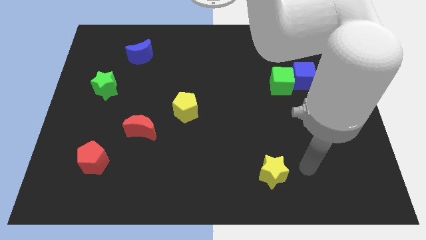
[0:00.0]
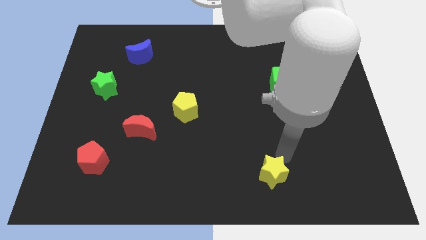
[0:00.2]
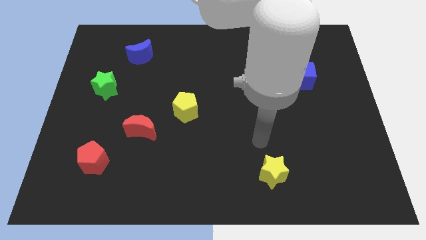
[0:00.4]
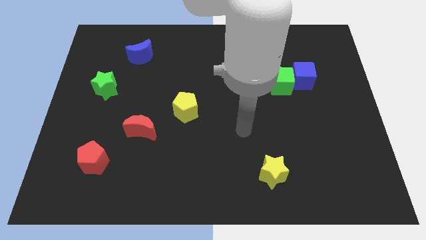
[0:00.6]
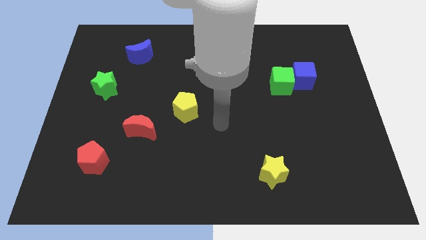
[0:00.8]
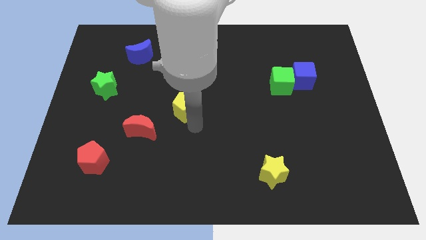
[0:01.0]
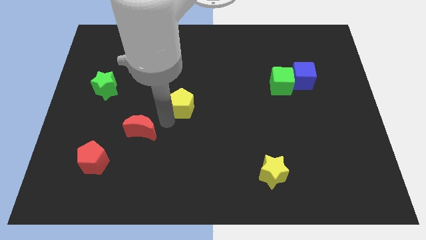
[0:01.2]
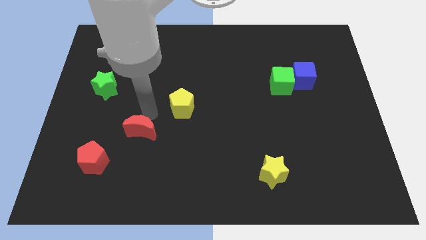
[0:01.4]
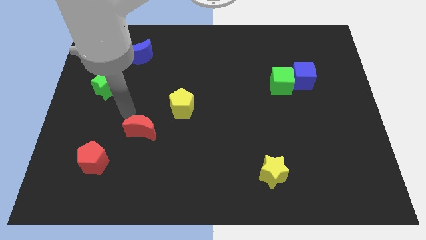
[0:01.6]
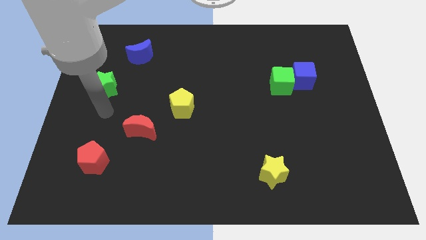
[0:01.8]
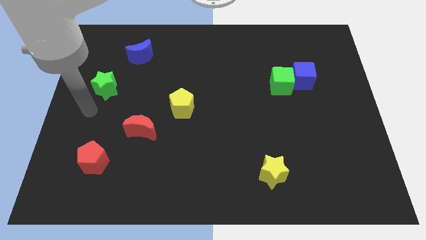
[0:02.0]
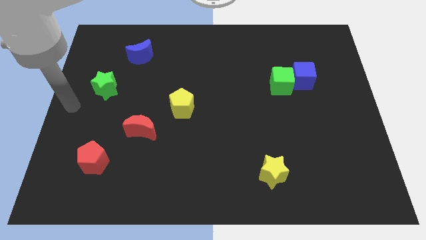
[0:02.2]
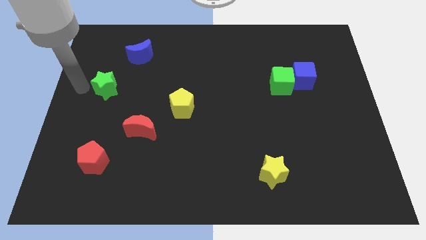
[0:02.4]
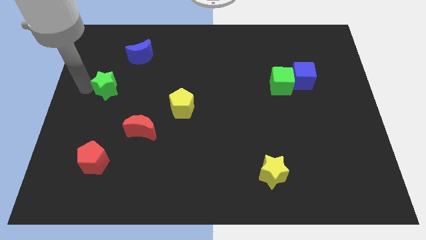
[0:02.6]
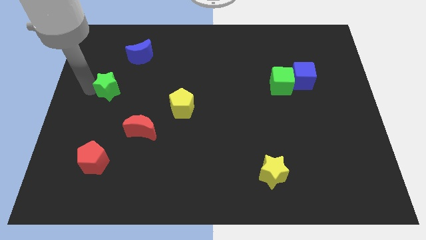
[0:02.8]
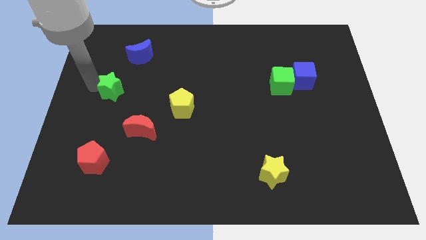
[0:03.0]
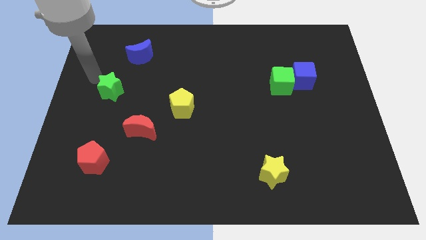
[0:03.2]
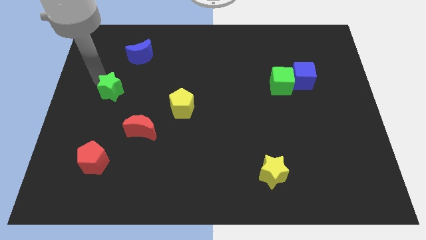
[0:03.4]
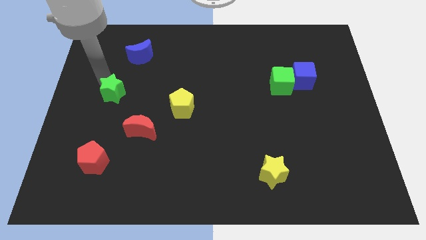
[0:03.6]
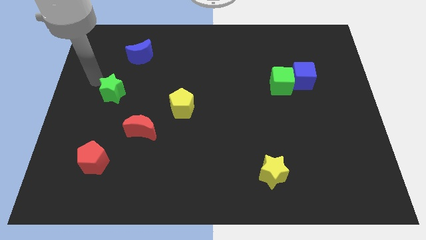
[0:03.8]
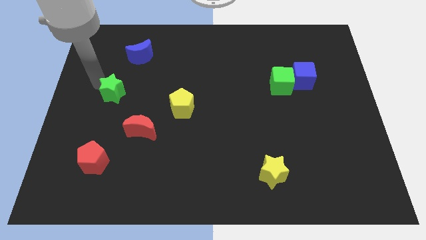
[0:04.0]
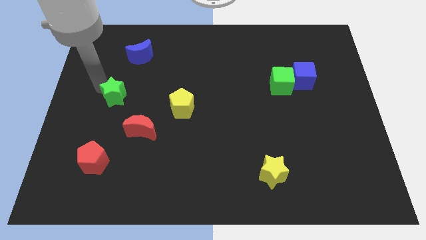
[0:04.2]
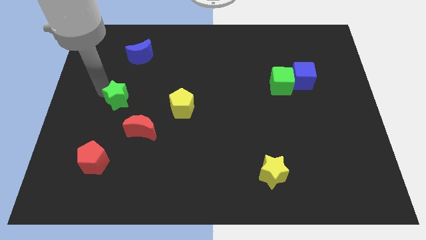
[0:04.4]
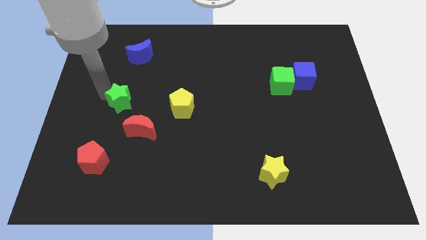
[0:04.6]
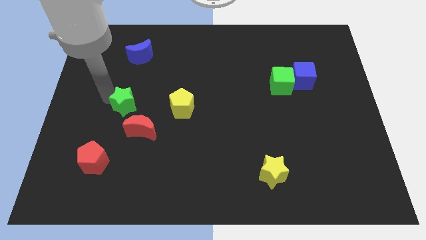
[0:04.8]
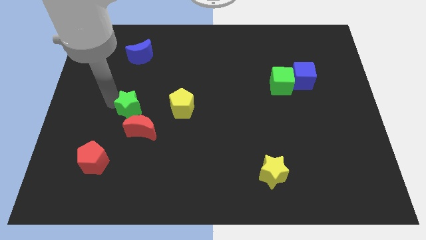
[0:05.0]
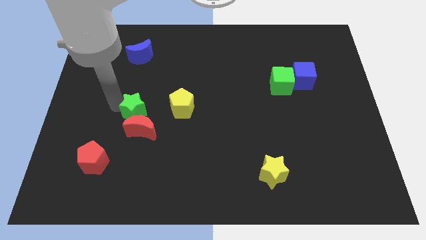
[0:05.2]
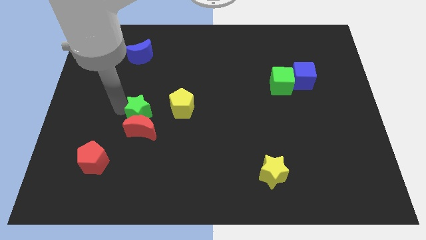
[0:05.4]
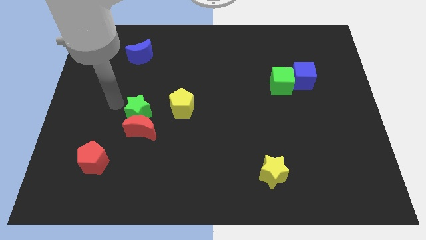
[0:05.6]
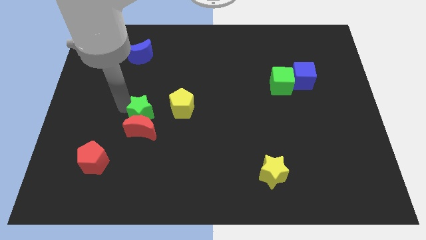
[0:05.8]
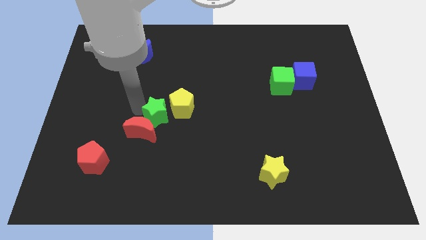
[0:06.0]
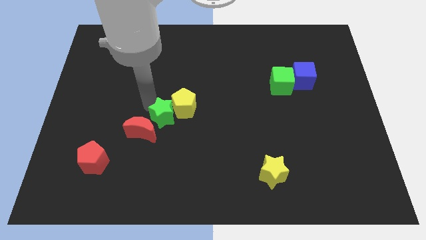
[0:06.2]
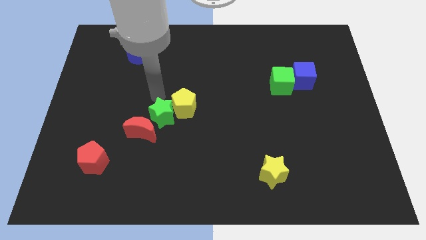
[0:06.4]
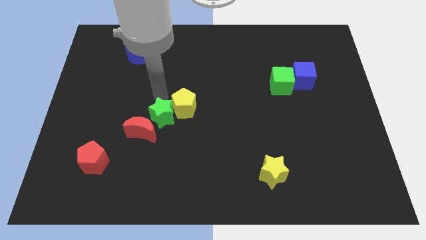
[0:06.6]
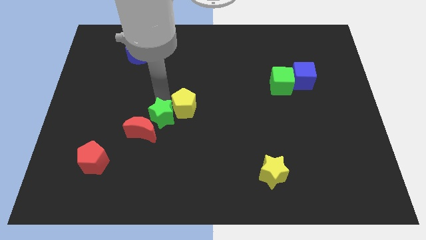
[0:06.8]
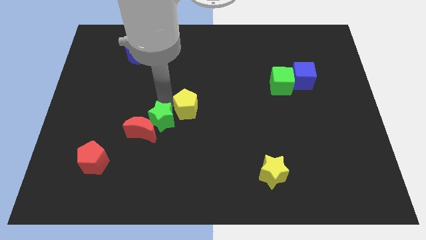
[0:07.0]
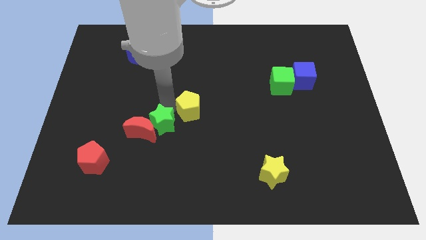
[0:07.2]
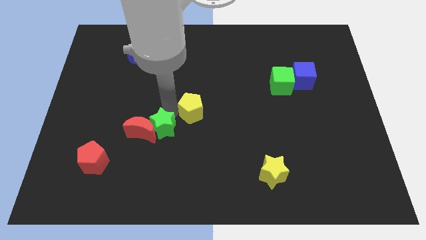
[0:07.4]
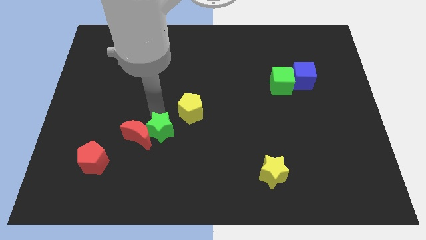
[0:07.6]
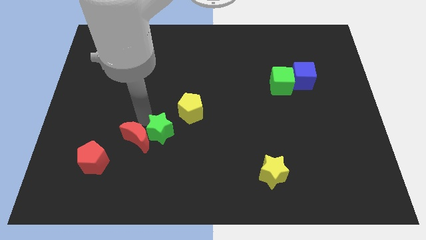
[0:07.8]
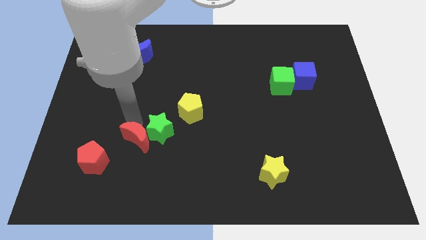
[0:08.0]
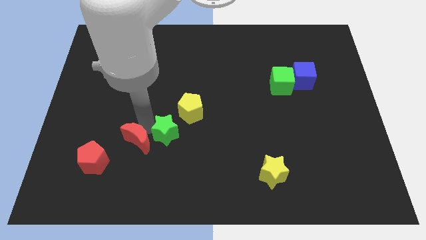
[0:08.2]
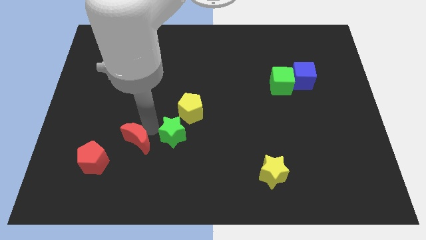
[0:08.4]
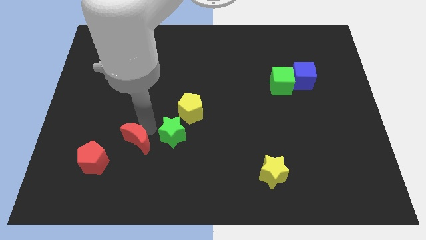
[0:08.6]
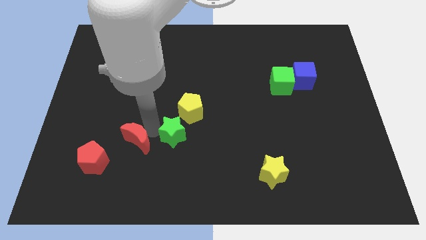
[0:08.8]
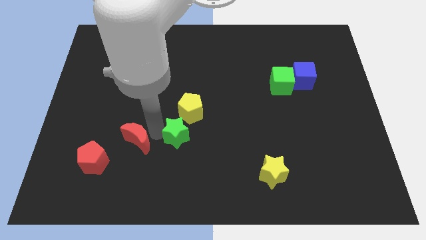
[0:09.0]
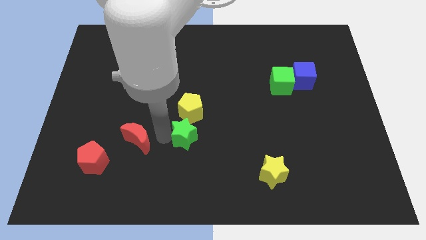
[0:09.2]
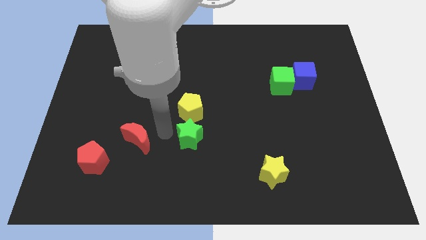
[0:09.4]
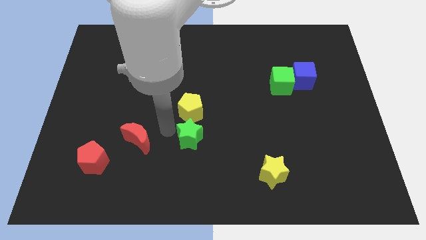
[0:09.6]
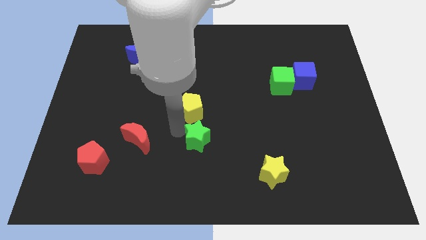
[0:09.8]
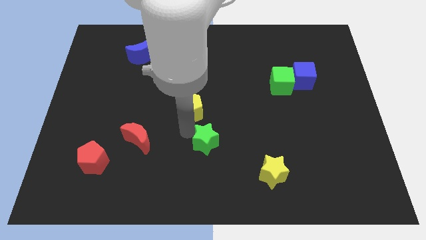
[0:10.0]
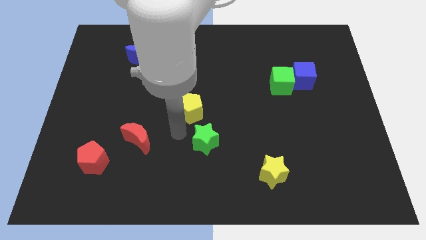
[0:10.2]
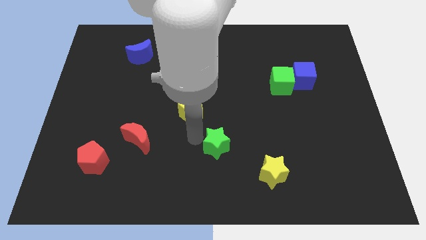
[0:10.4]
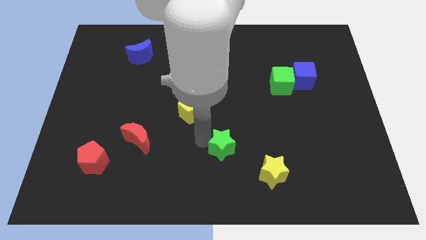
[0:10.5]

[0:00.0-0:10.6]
push the green star diagonally up and to the left of the yellow star

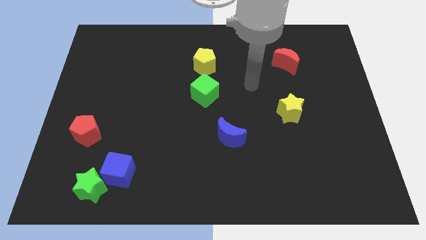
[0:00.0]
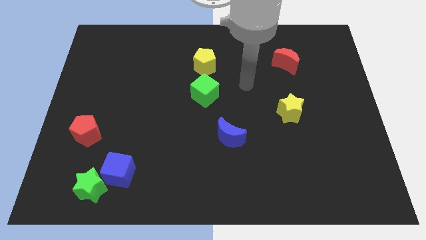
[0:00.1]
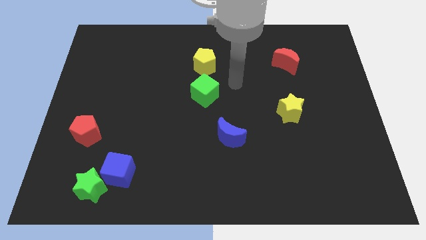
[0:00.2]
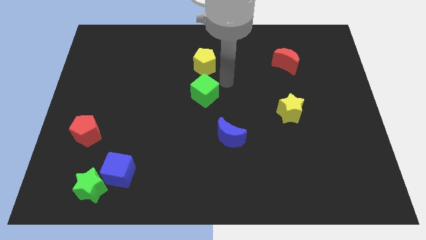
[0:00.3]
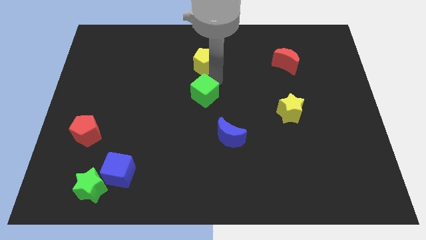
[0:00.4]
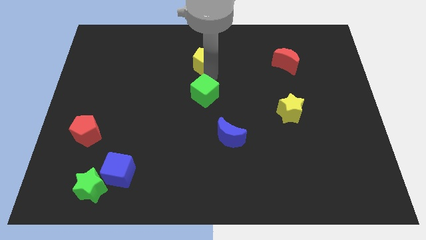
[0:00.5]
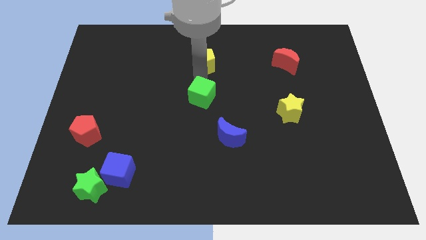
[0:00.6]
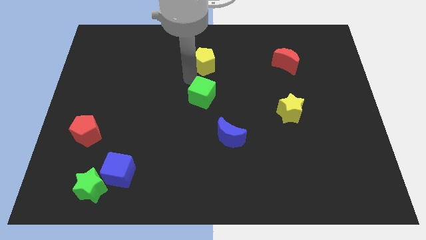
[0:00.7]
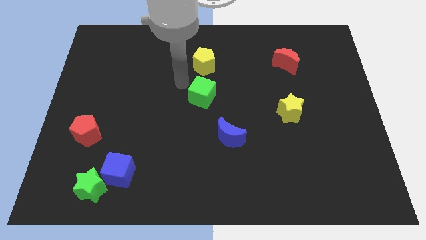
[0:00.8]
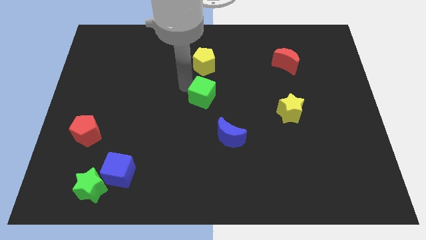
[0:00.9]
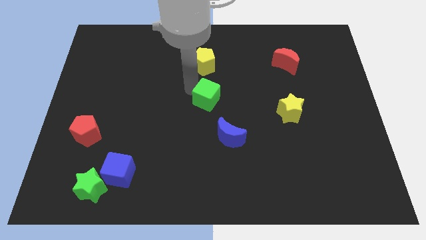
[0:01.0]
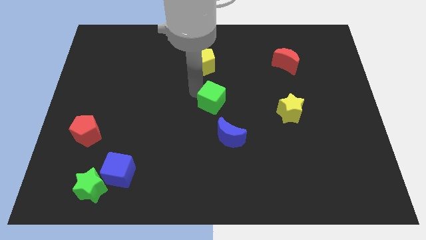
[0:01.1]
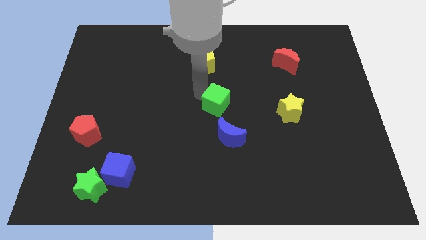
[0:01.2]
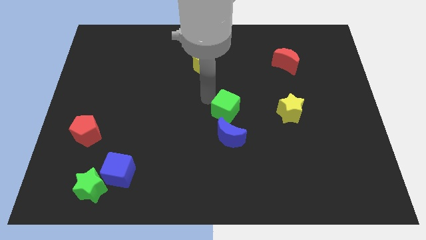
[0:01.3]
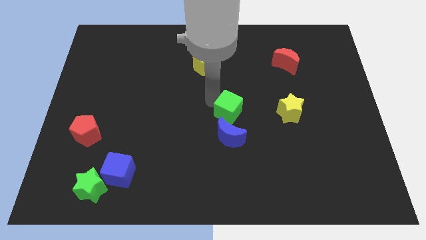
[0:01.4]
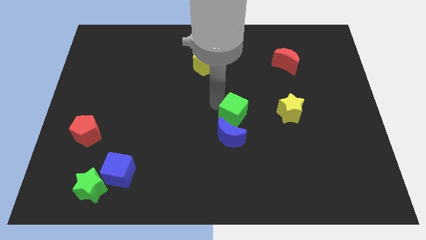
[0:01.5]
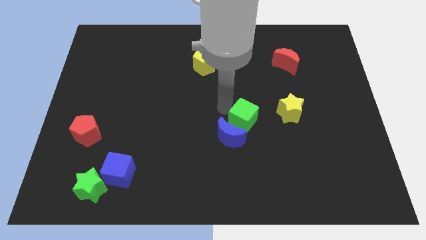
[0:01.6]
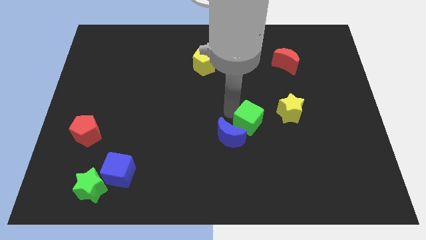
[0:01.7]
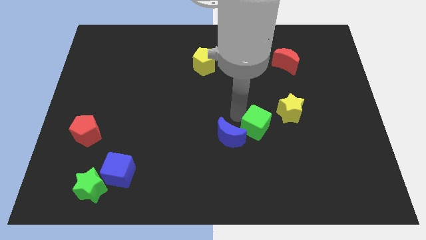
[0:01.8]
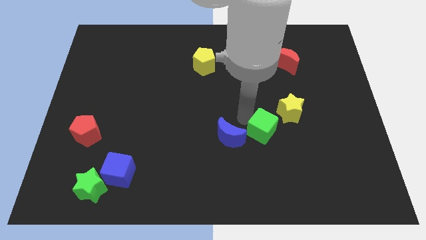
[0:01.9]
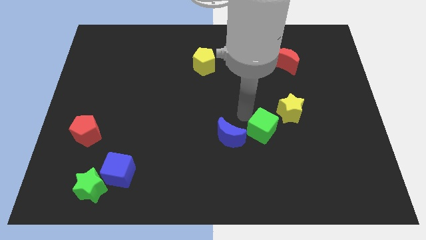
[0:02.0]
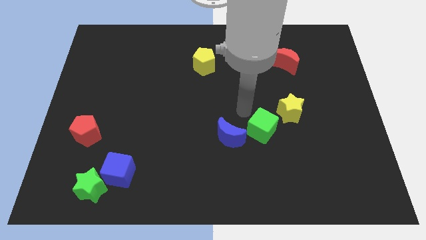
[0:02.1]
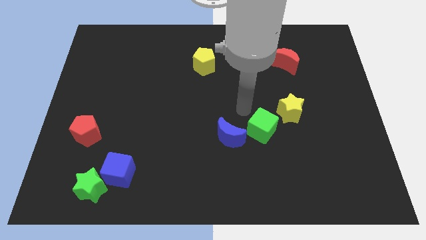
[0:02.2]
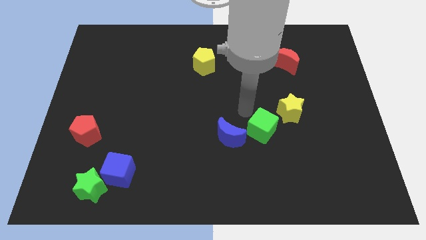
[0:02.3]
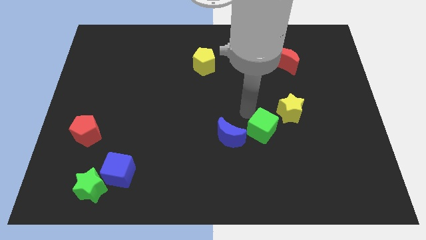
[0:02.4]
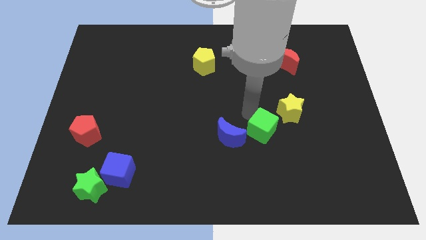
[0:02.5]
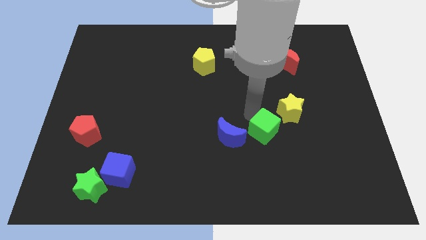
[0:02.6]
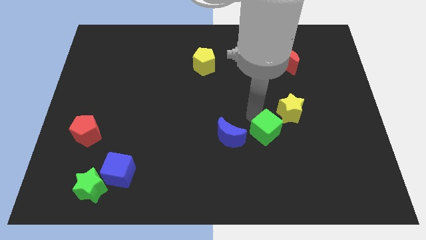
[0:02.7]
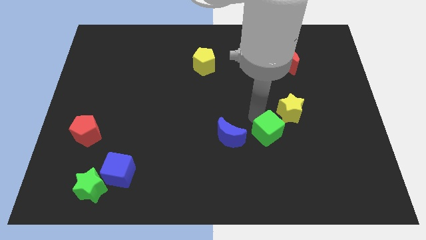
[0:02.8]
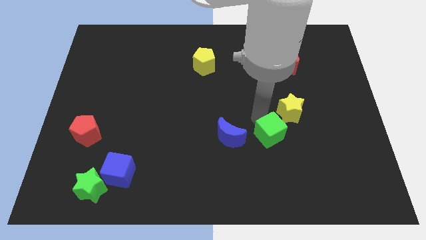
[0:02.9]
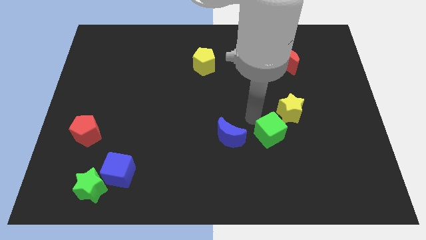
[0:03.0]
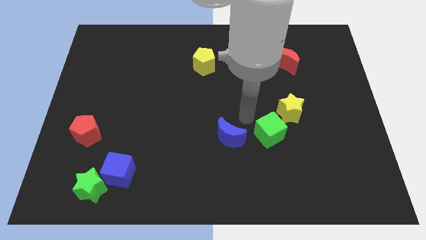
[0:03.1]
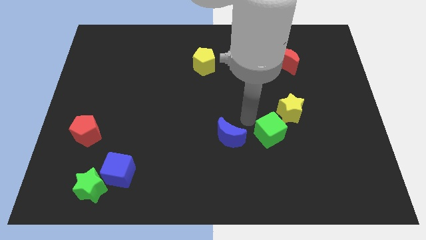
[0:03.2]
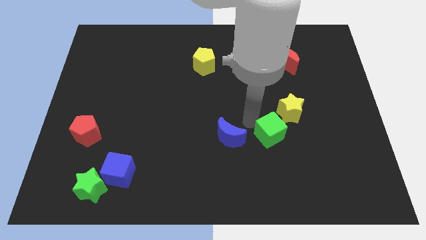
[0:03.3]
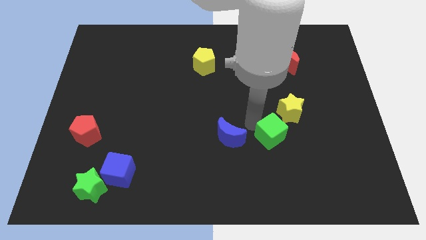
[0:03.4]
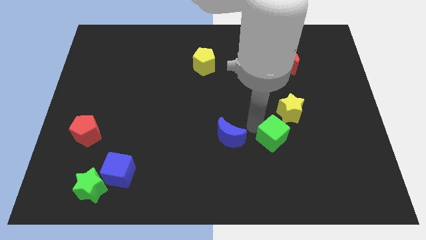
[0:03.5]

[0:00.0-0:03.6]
slide the green cube to the bottom of the yellow star
